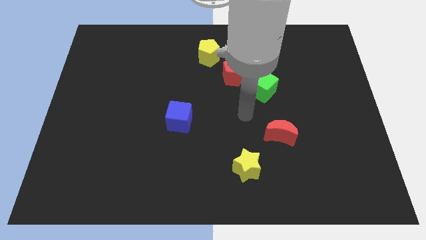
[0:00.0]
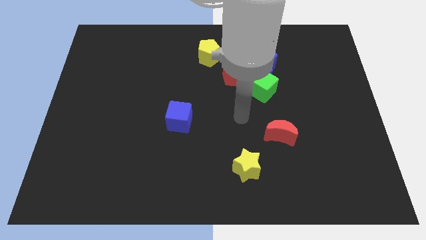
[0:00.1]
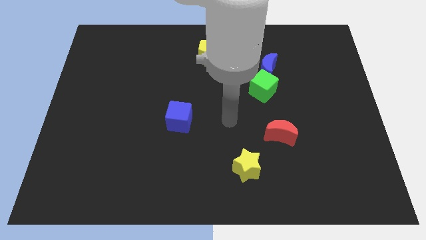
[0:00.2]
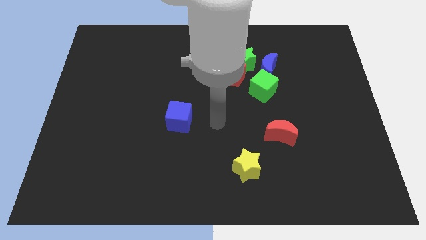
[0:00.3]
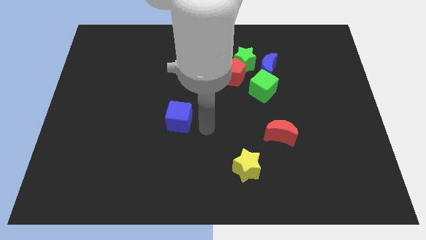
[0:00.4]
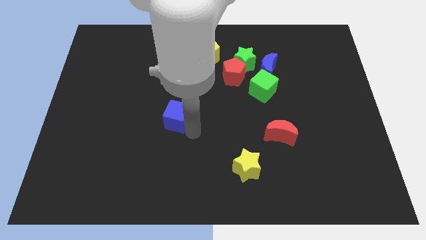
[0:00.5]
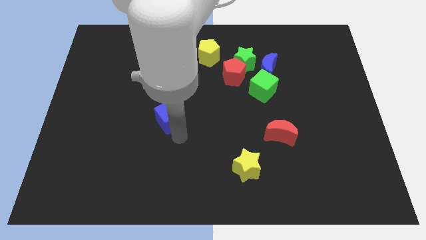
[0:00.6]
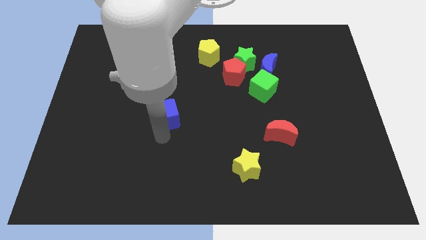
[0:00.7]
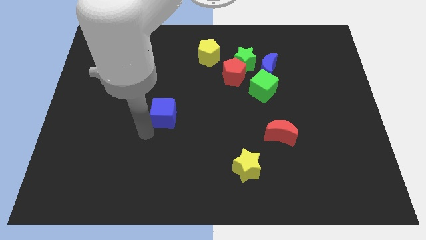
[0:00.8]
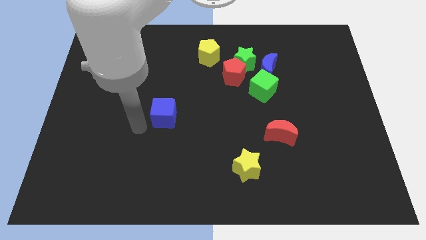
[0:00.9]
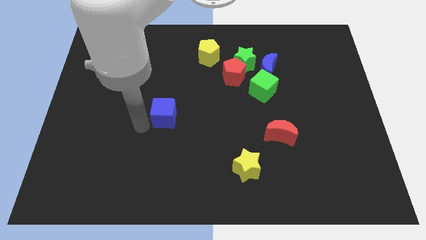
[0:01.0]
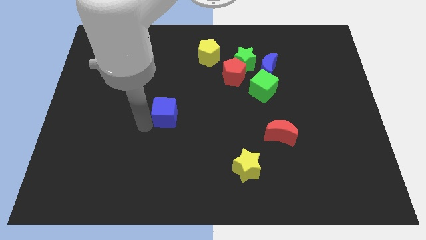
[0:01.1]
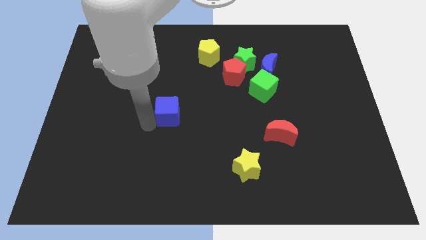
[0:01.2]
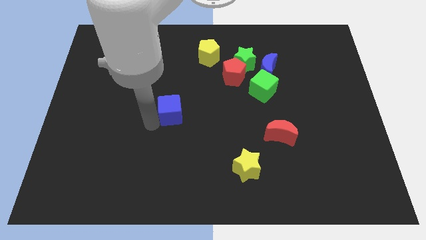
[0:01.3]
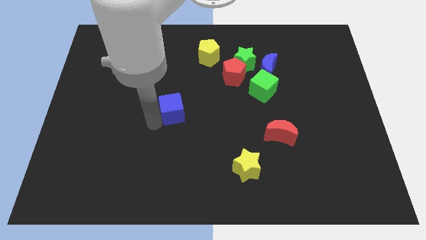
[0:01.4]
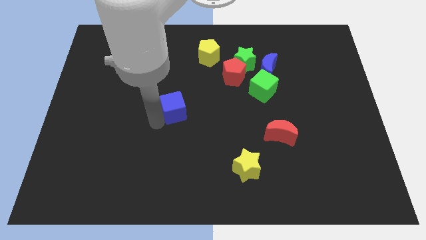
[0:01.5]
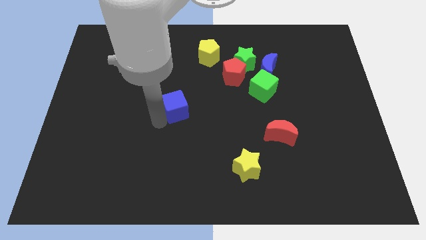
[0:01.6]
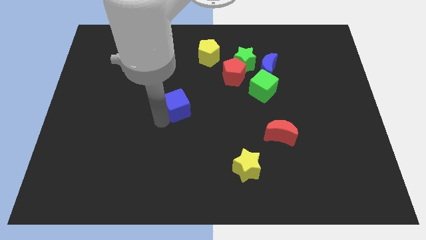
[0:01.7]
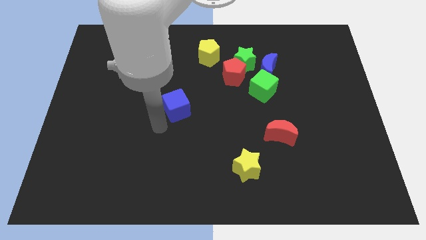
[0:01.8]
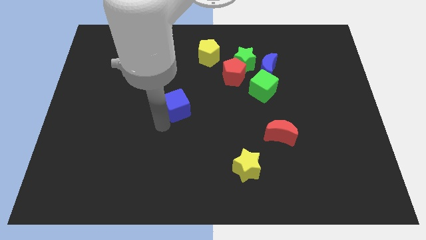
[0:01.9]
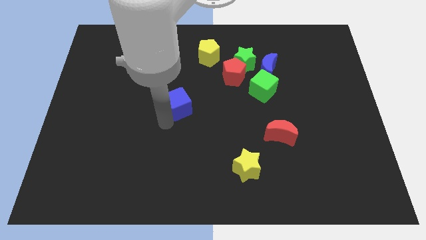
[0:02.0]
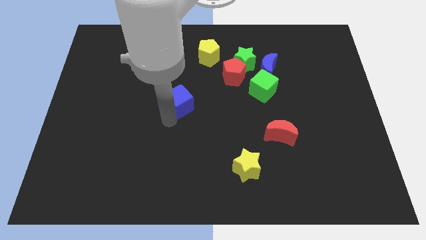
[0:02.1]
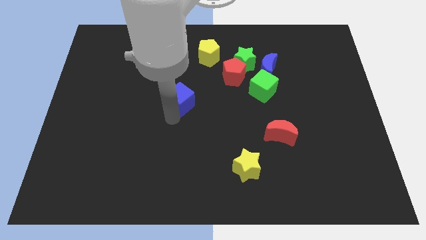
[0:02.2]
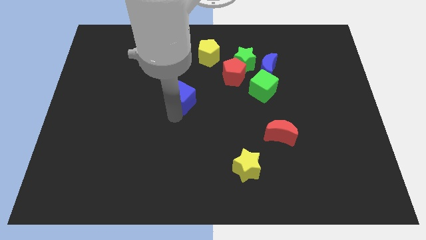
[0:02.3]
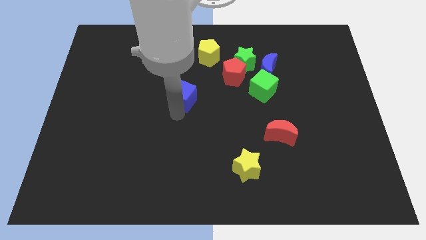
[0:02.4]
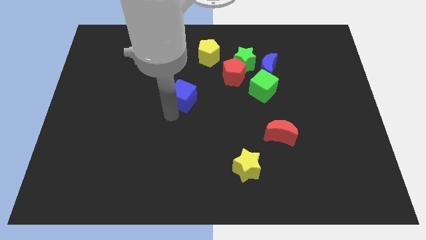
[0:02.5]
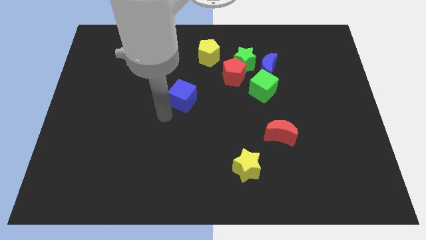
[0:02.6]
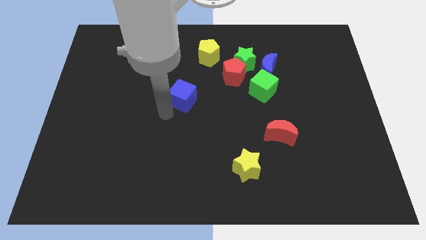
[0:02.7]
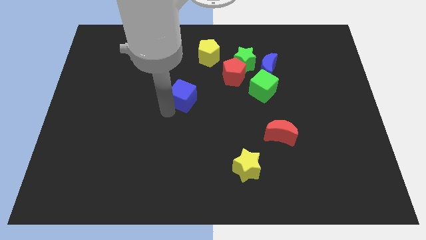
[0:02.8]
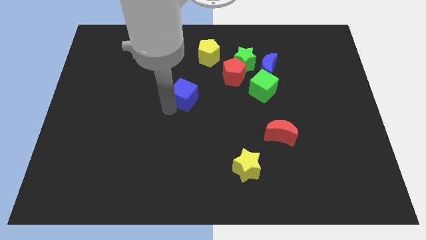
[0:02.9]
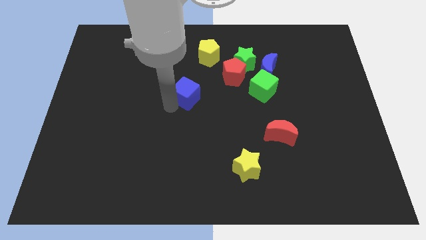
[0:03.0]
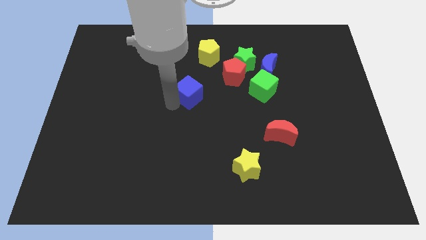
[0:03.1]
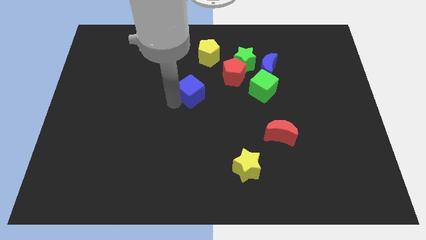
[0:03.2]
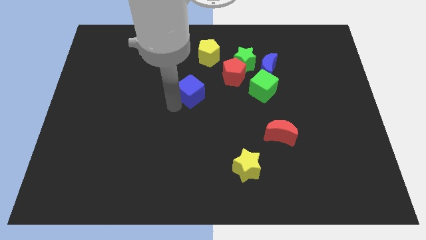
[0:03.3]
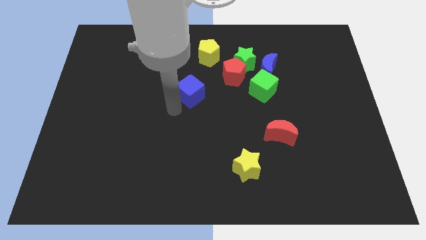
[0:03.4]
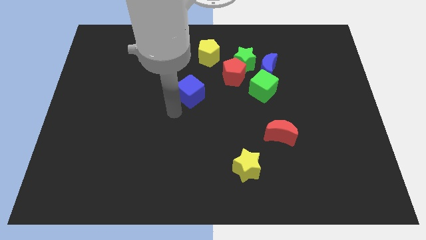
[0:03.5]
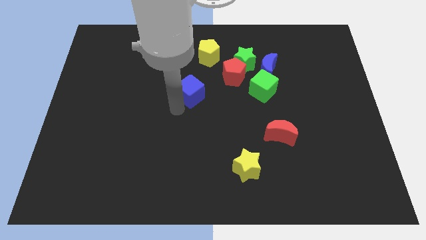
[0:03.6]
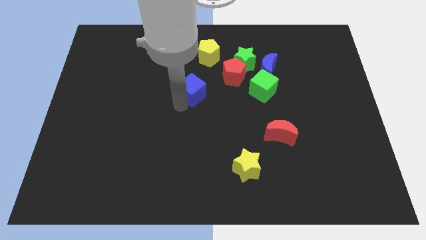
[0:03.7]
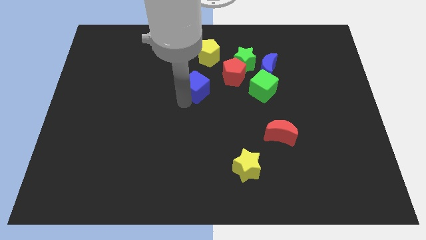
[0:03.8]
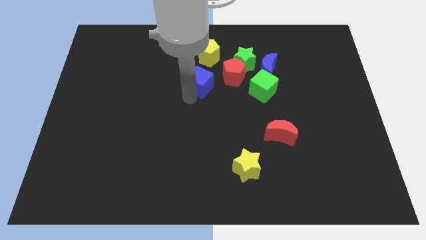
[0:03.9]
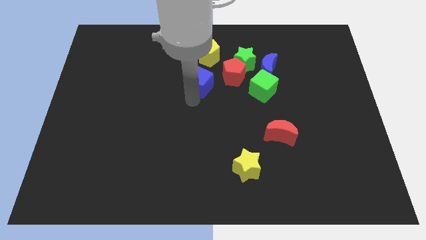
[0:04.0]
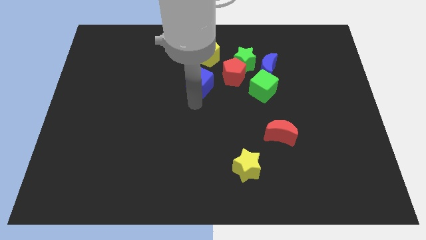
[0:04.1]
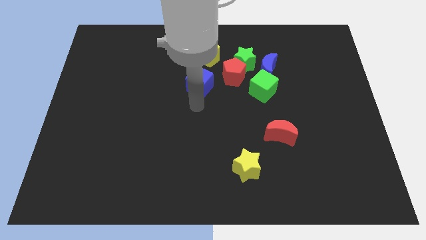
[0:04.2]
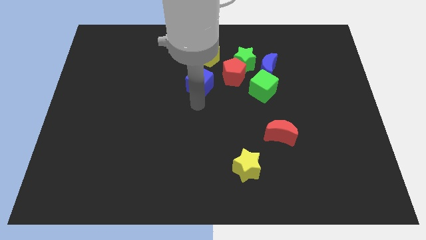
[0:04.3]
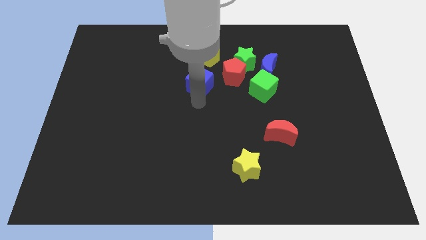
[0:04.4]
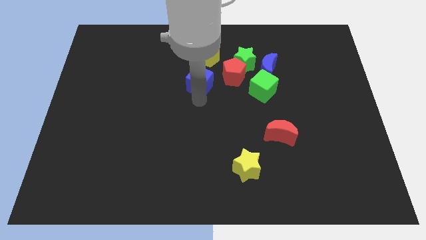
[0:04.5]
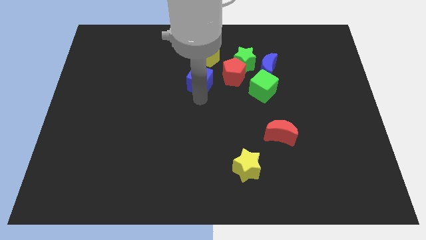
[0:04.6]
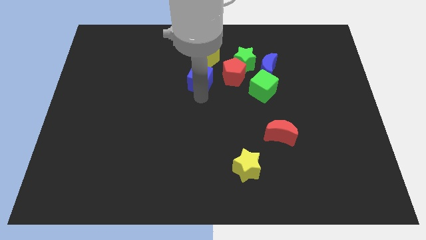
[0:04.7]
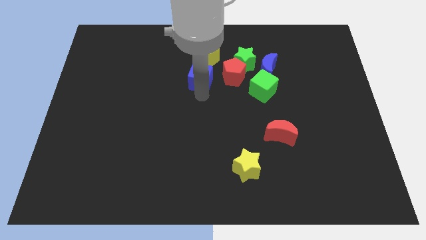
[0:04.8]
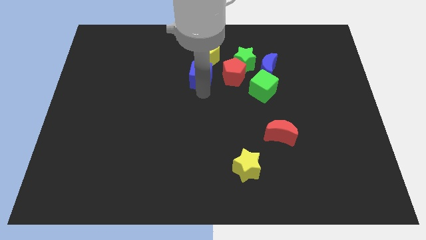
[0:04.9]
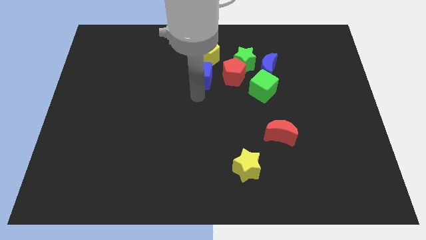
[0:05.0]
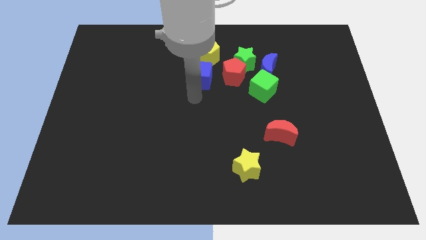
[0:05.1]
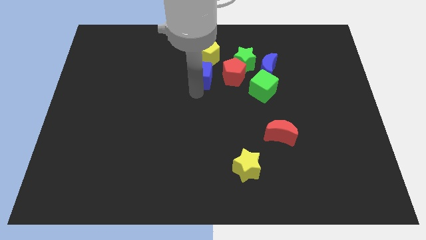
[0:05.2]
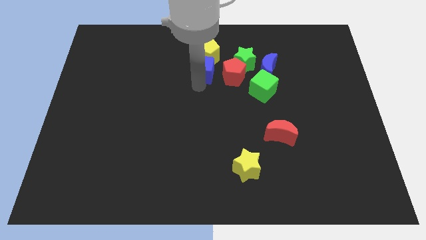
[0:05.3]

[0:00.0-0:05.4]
slide the blue cube to the yellow pentagon

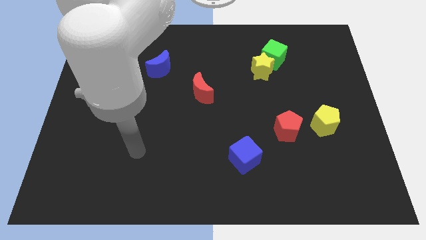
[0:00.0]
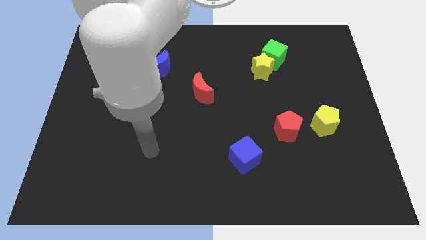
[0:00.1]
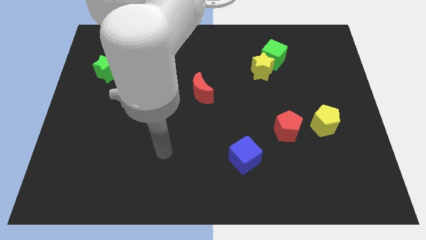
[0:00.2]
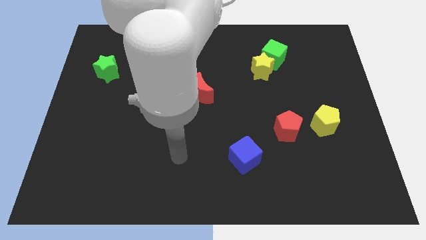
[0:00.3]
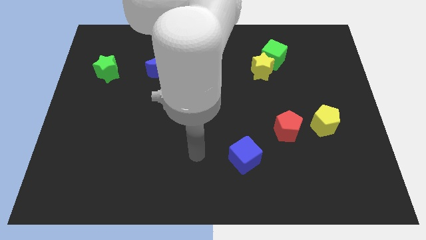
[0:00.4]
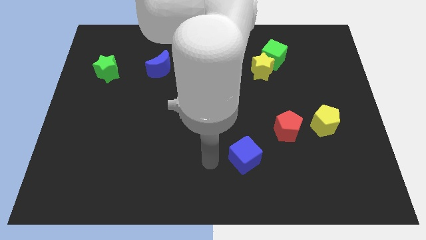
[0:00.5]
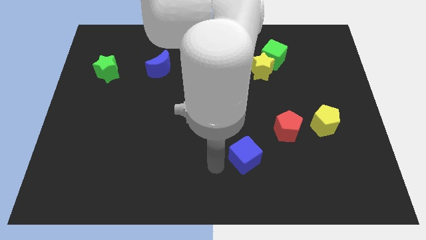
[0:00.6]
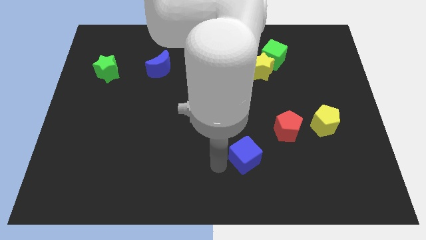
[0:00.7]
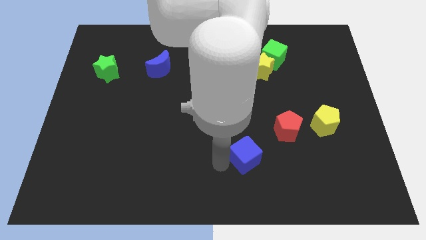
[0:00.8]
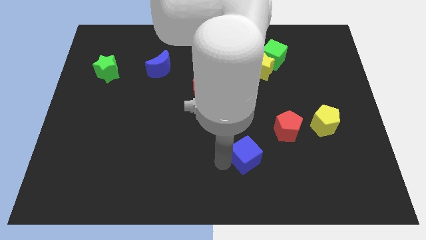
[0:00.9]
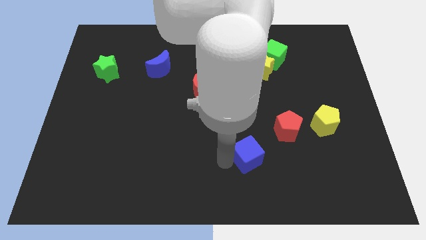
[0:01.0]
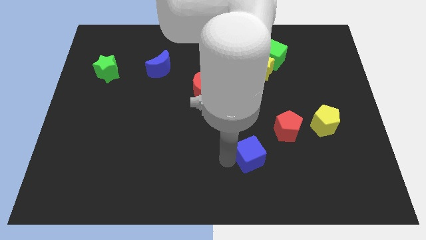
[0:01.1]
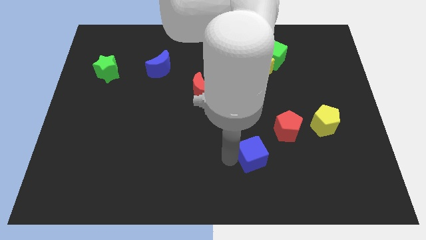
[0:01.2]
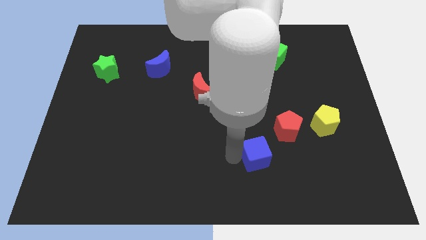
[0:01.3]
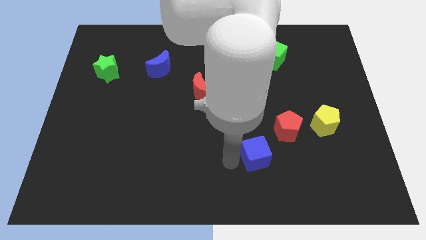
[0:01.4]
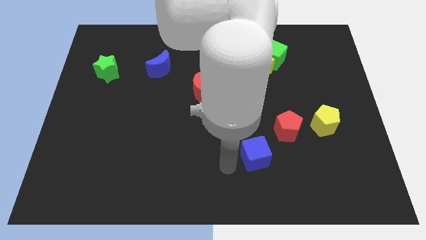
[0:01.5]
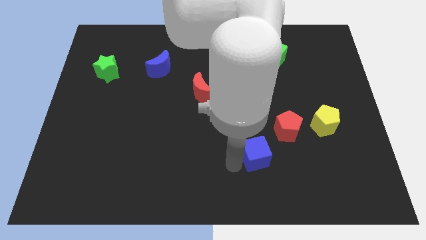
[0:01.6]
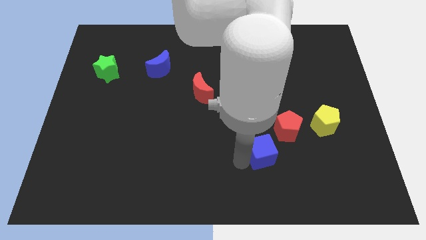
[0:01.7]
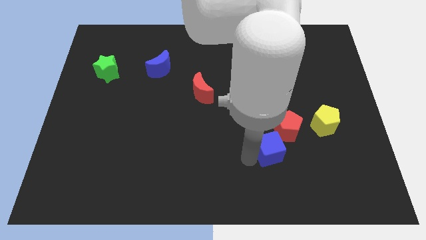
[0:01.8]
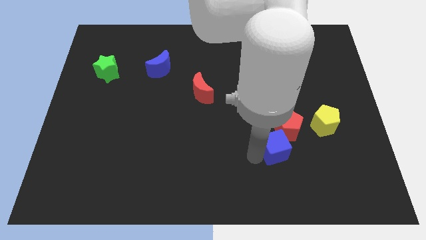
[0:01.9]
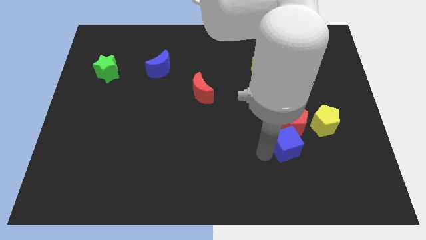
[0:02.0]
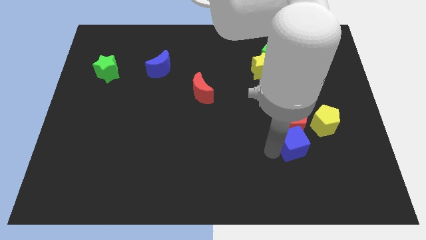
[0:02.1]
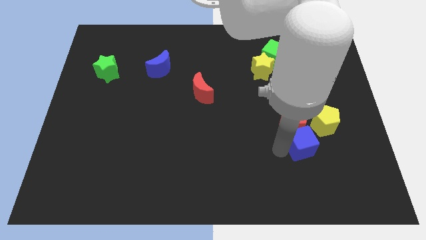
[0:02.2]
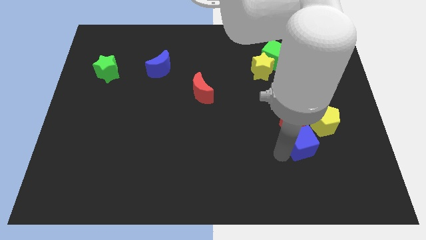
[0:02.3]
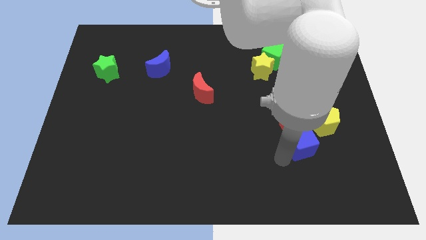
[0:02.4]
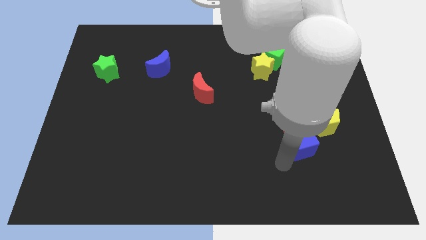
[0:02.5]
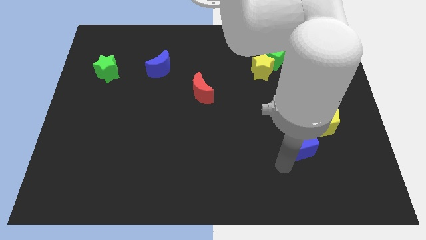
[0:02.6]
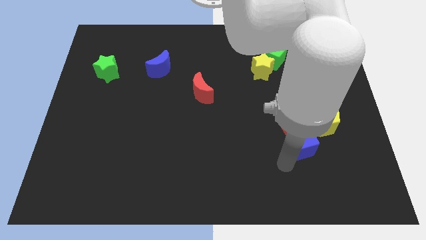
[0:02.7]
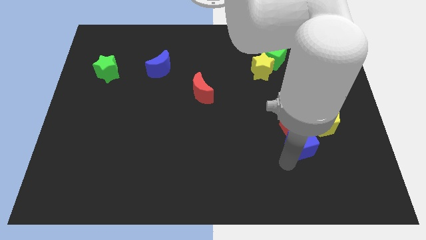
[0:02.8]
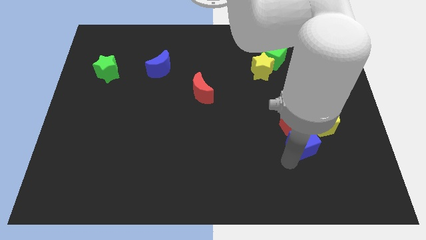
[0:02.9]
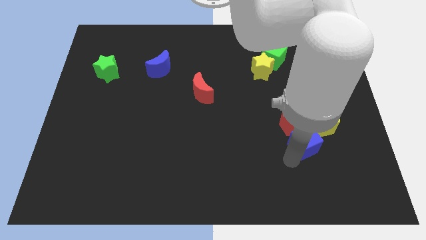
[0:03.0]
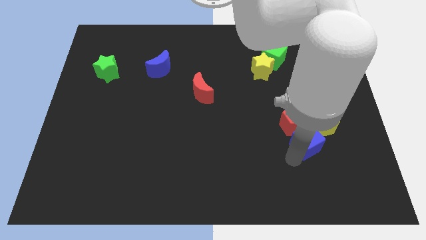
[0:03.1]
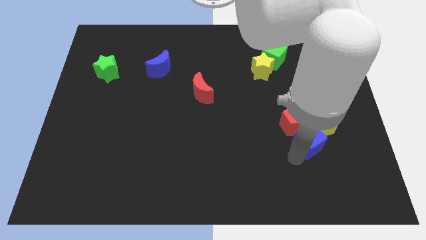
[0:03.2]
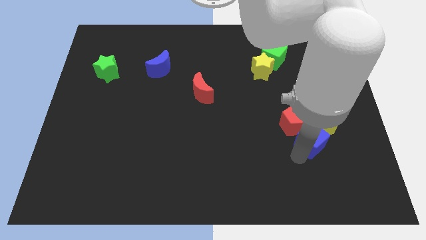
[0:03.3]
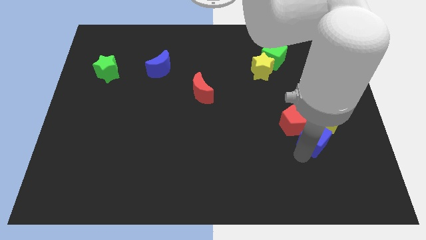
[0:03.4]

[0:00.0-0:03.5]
move the blue cube to the yellow pentagon
